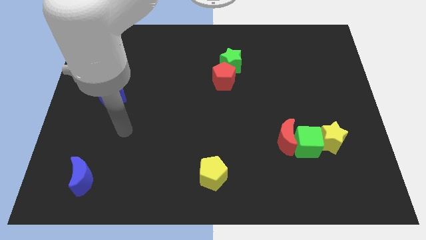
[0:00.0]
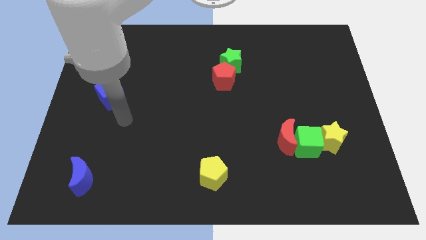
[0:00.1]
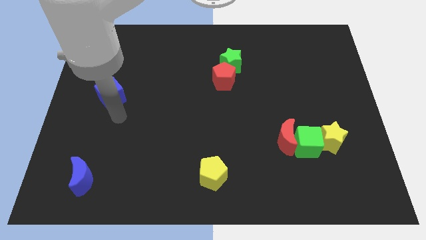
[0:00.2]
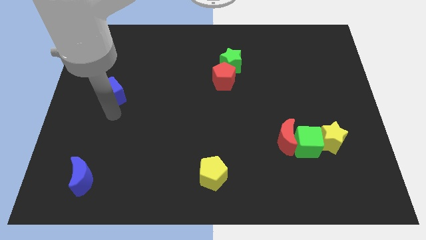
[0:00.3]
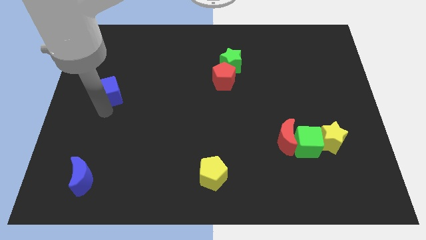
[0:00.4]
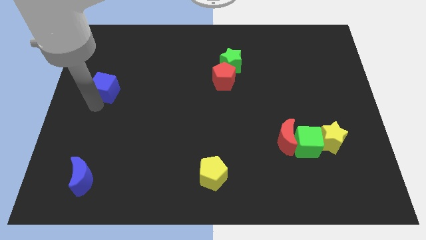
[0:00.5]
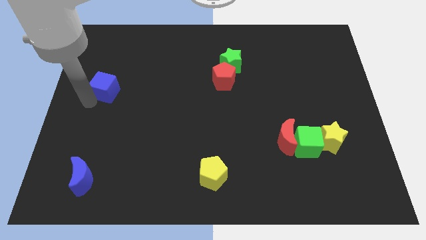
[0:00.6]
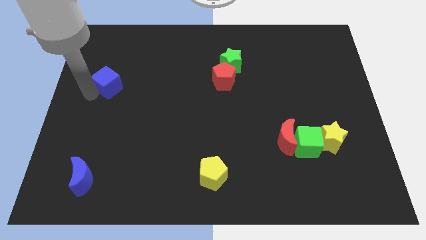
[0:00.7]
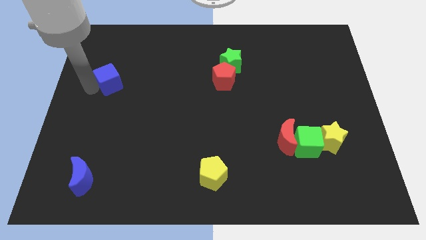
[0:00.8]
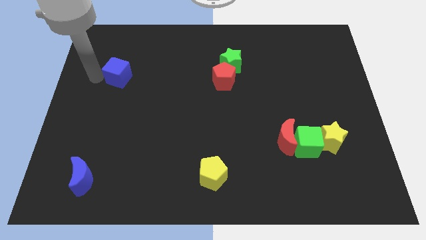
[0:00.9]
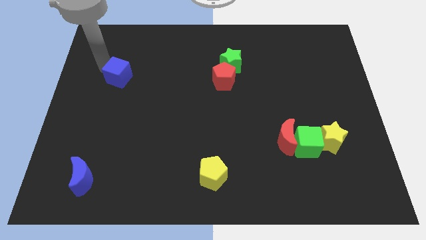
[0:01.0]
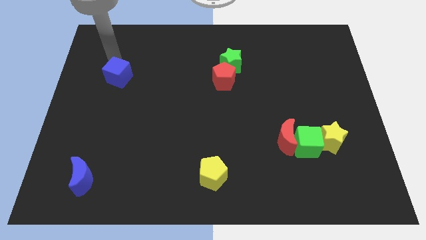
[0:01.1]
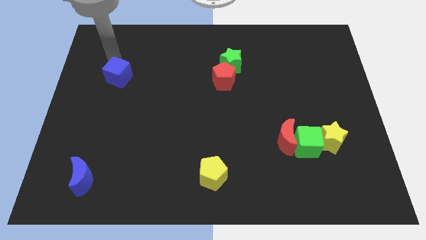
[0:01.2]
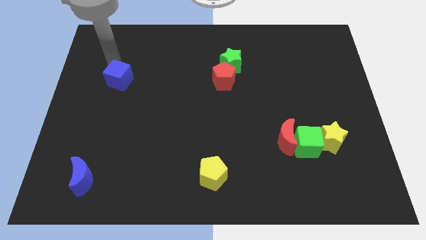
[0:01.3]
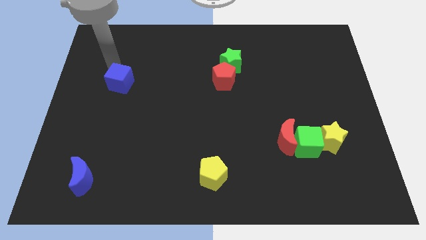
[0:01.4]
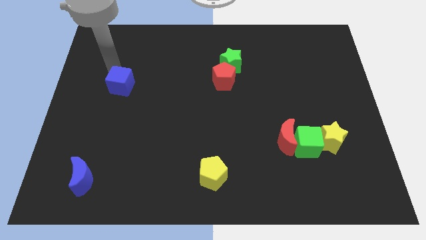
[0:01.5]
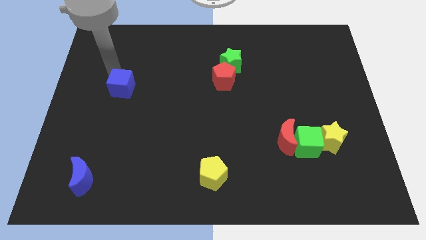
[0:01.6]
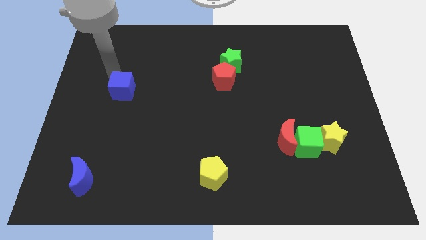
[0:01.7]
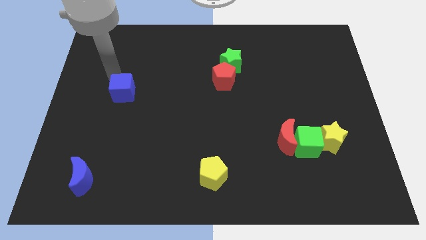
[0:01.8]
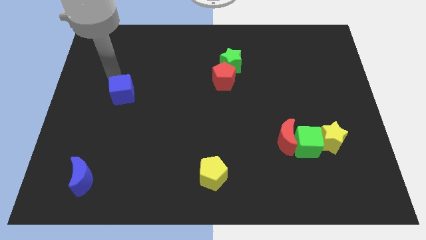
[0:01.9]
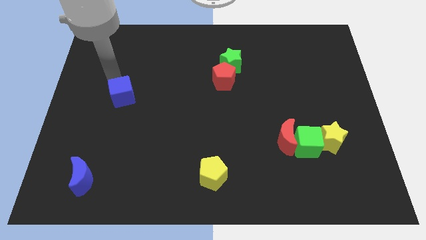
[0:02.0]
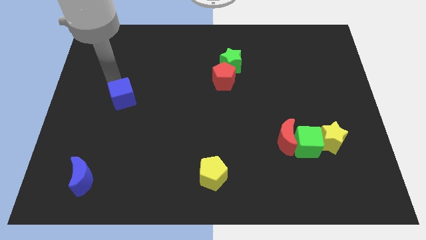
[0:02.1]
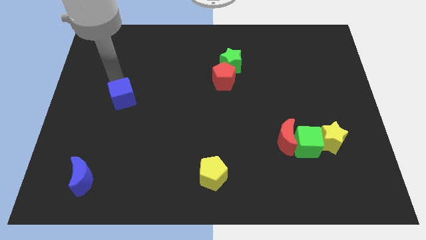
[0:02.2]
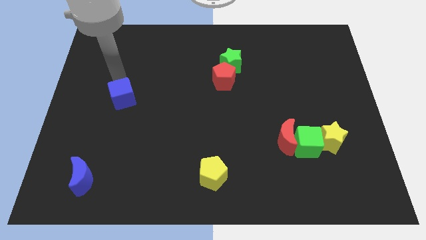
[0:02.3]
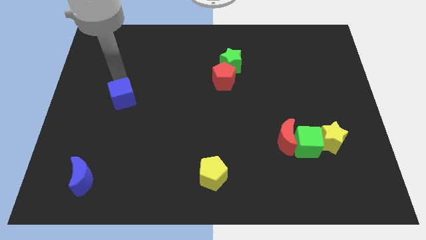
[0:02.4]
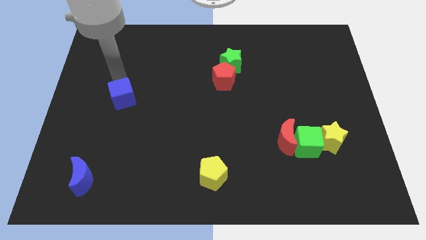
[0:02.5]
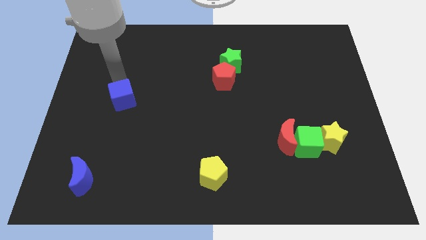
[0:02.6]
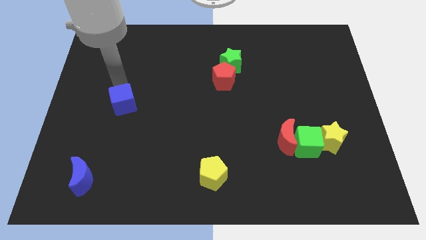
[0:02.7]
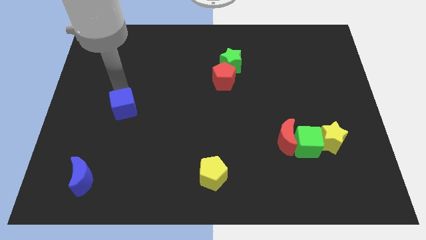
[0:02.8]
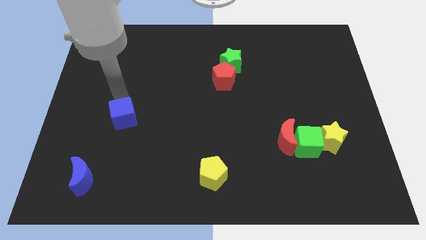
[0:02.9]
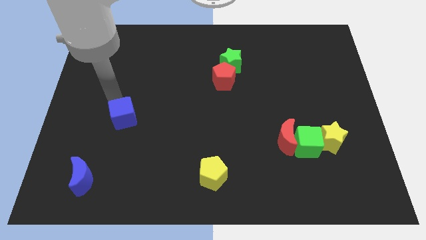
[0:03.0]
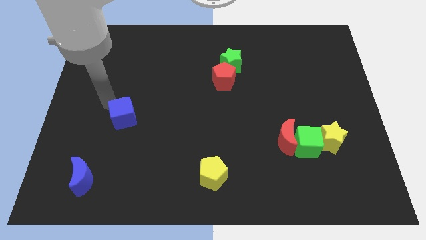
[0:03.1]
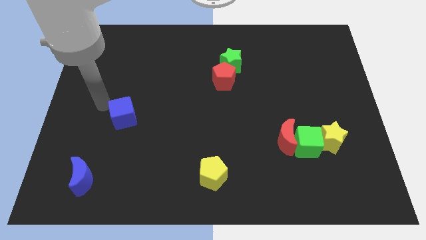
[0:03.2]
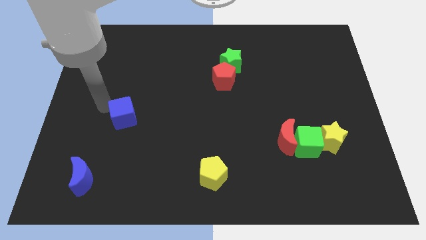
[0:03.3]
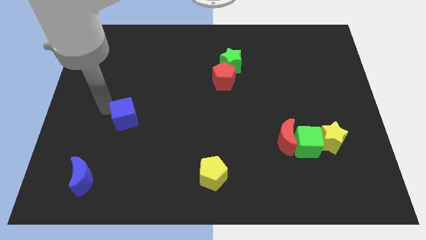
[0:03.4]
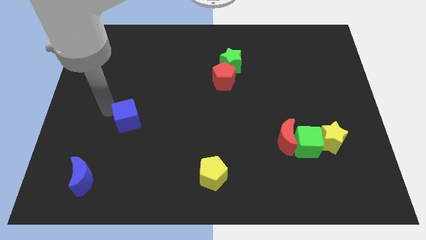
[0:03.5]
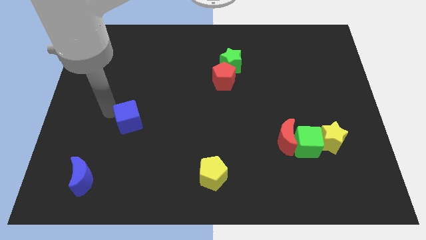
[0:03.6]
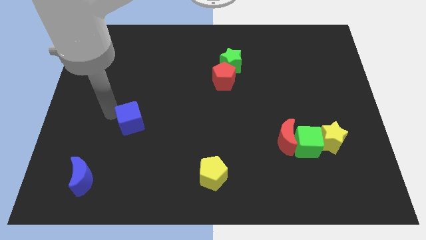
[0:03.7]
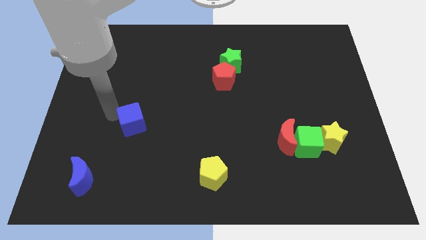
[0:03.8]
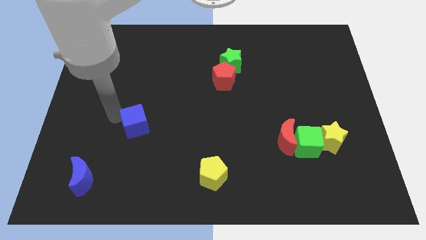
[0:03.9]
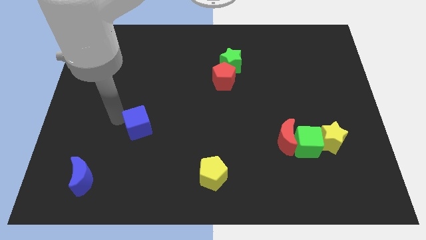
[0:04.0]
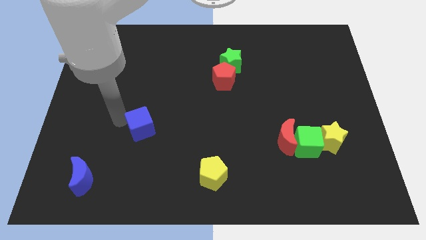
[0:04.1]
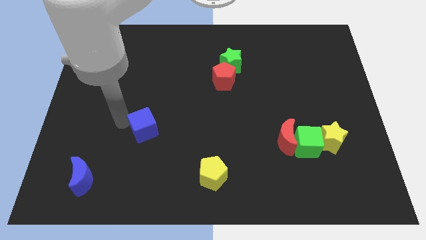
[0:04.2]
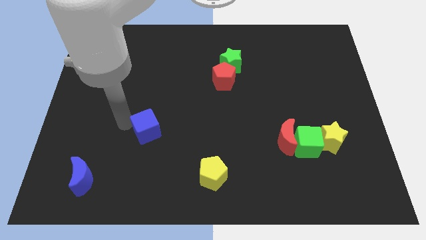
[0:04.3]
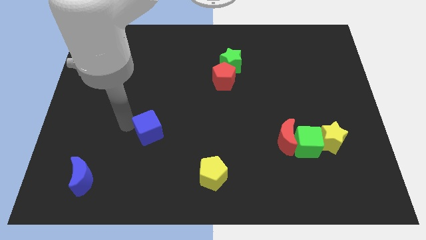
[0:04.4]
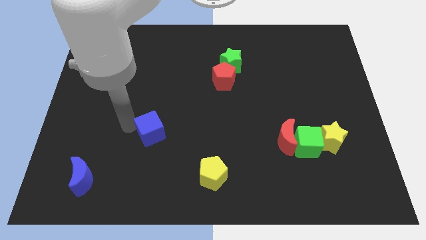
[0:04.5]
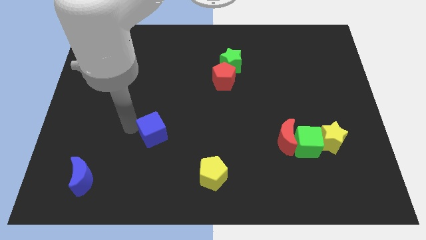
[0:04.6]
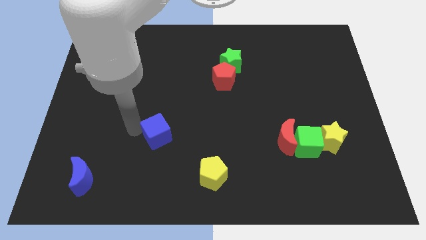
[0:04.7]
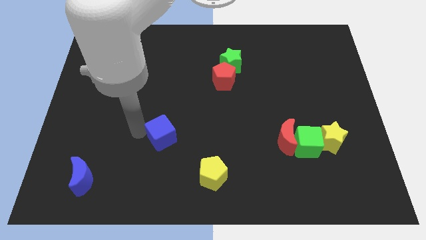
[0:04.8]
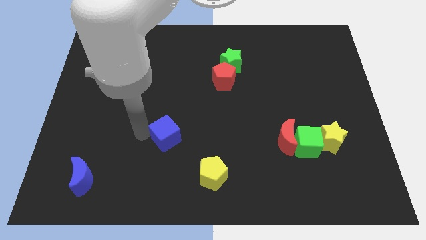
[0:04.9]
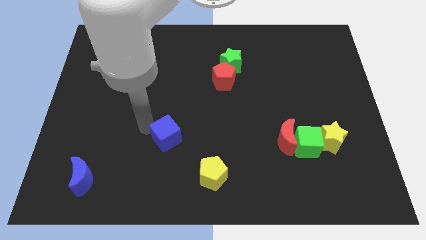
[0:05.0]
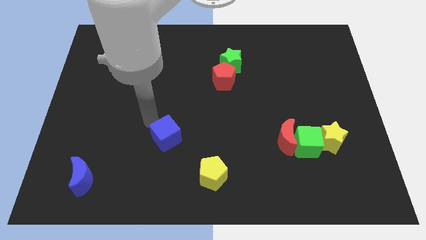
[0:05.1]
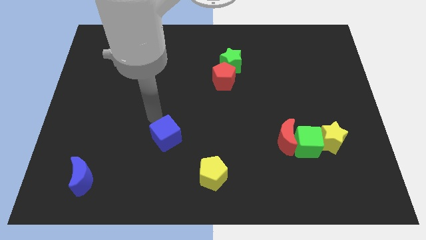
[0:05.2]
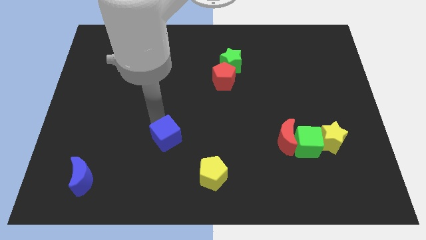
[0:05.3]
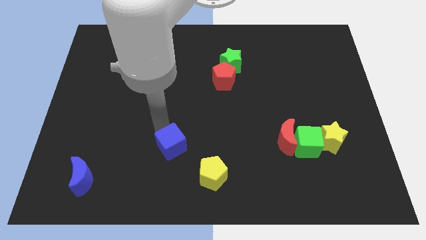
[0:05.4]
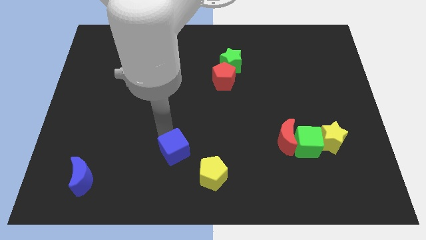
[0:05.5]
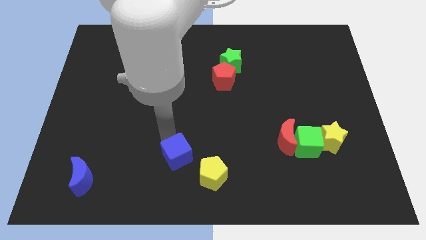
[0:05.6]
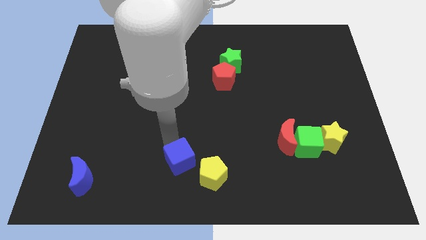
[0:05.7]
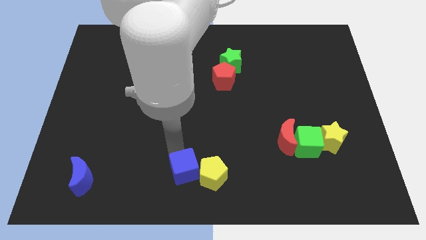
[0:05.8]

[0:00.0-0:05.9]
put the blue cube to the bottom

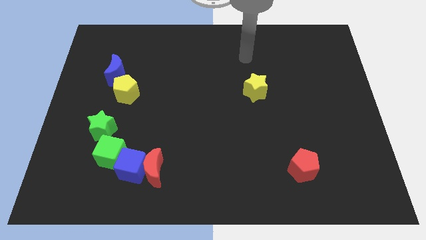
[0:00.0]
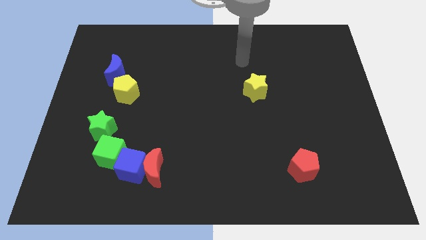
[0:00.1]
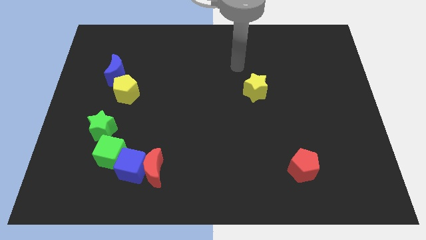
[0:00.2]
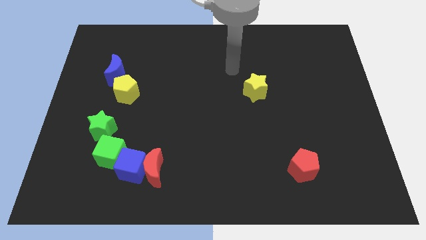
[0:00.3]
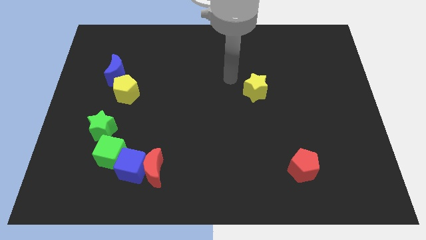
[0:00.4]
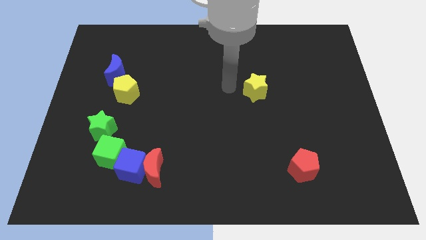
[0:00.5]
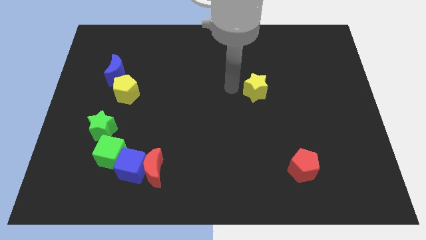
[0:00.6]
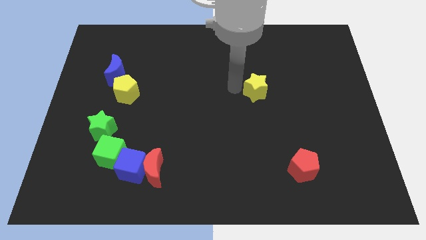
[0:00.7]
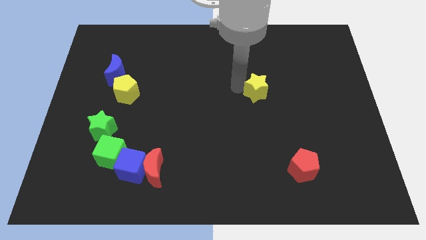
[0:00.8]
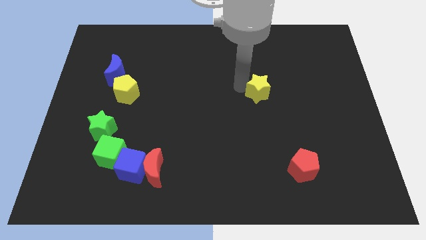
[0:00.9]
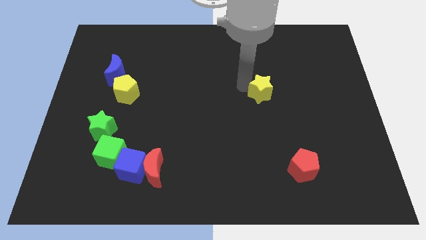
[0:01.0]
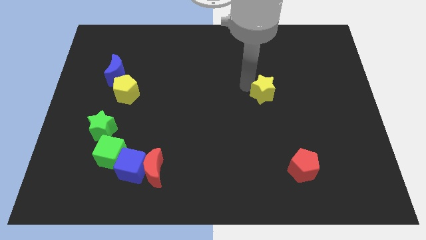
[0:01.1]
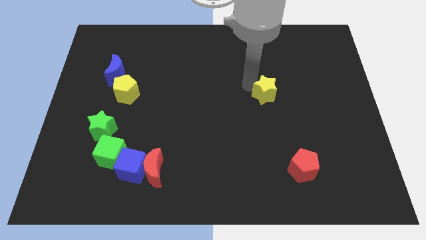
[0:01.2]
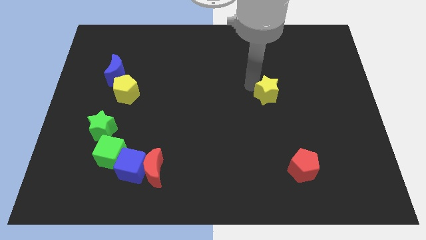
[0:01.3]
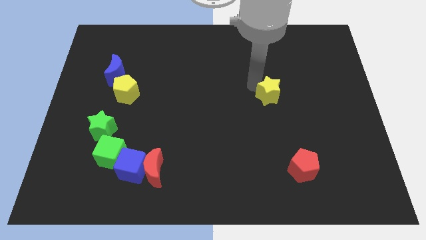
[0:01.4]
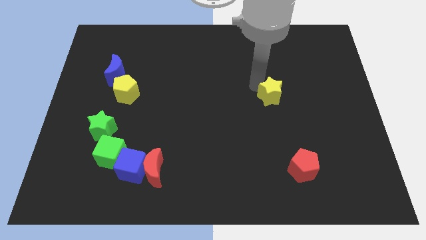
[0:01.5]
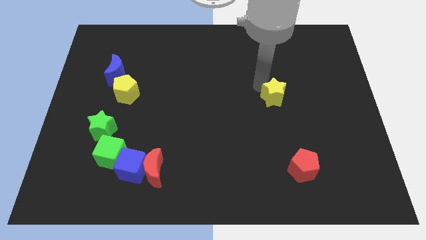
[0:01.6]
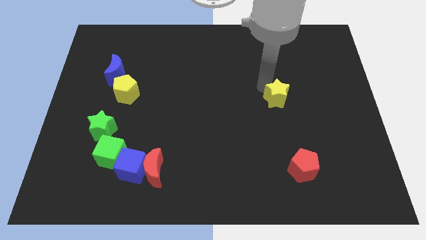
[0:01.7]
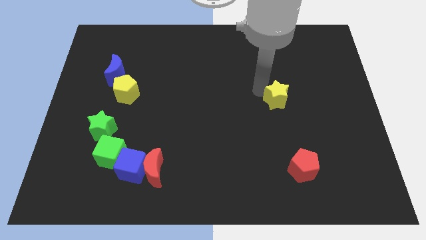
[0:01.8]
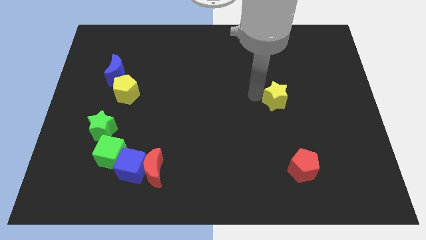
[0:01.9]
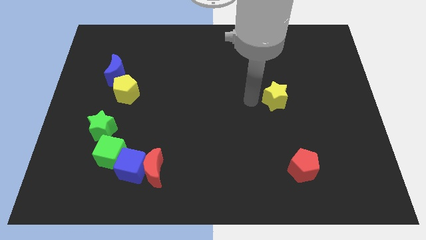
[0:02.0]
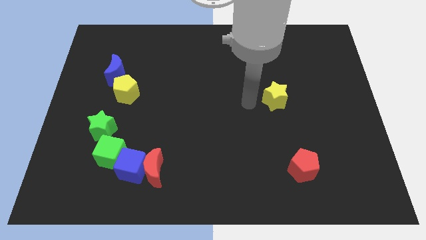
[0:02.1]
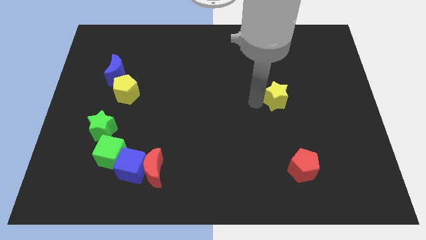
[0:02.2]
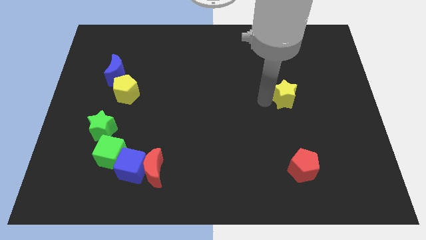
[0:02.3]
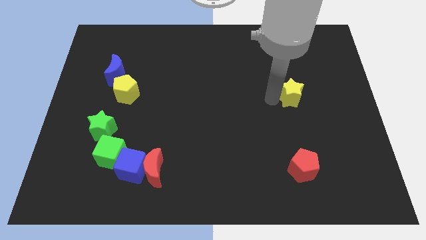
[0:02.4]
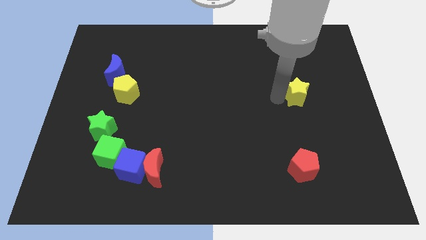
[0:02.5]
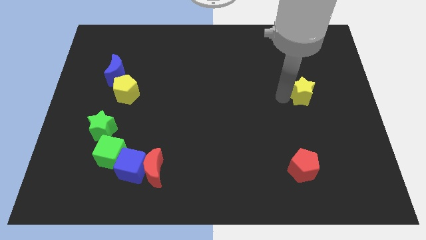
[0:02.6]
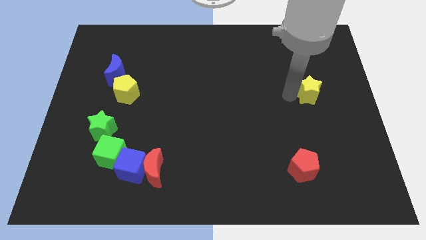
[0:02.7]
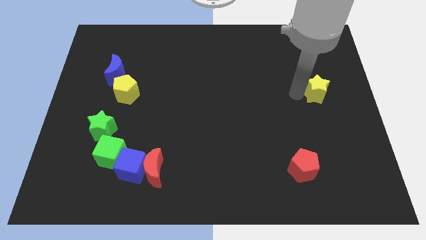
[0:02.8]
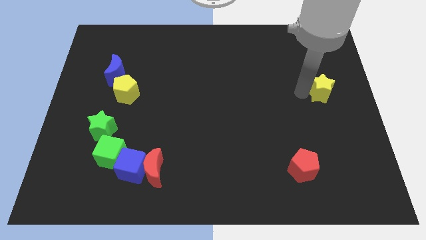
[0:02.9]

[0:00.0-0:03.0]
put the yellow star to the right side of the board
